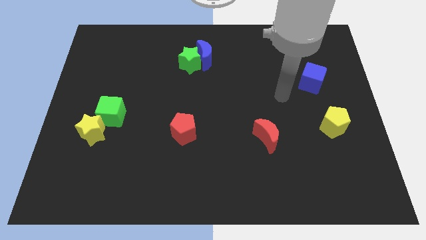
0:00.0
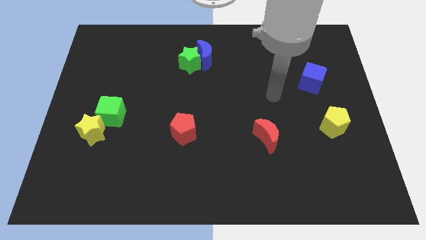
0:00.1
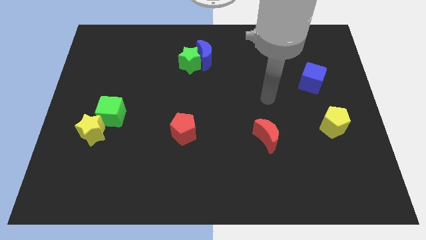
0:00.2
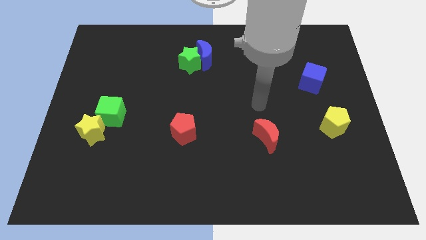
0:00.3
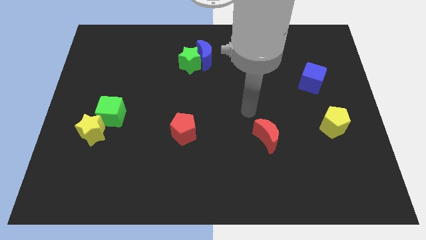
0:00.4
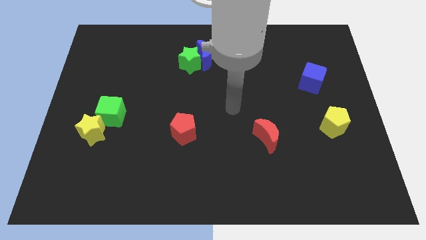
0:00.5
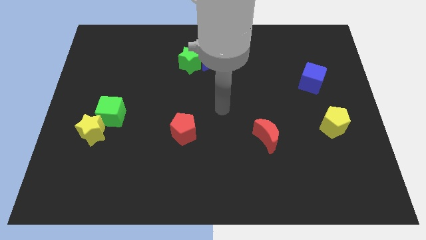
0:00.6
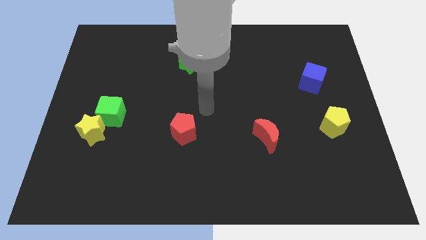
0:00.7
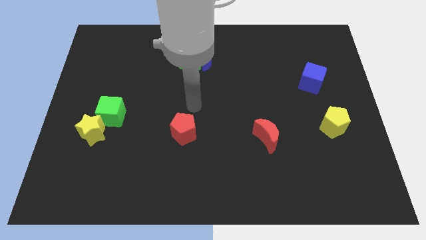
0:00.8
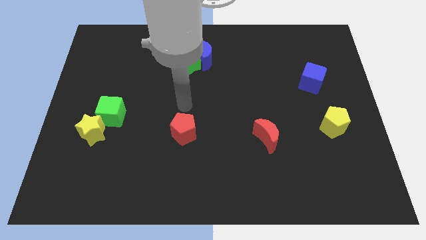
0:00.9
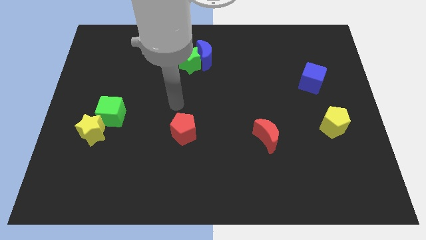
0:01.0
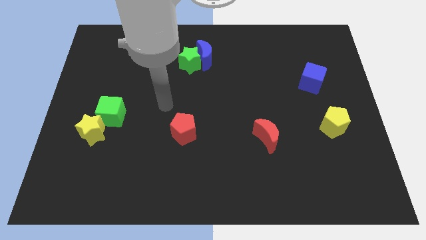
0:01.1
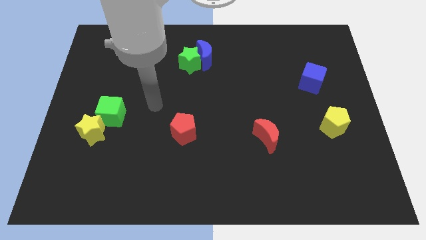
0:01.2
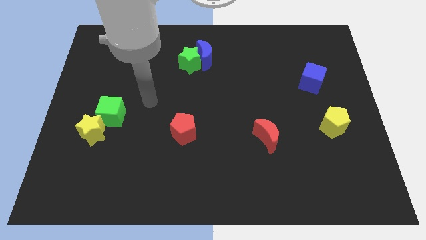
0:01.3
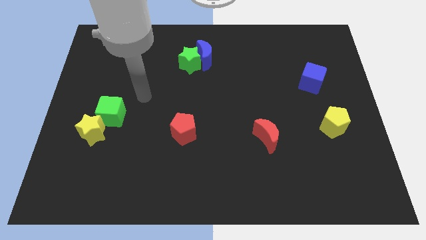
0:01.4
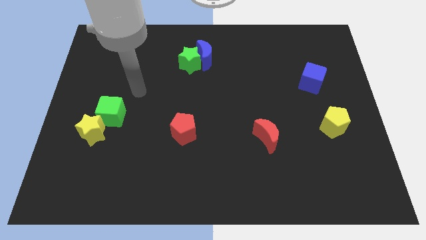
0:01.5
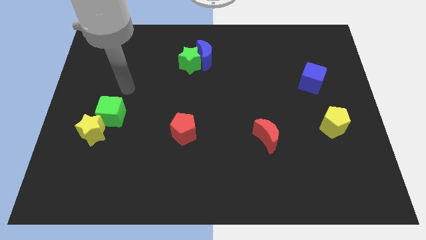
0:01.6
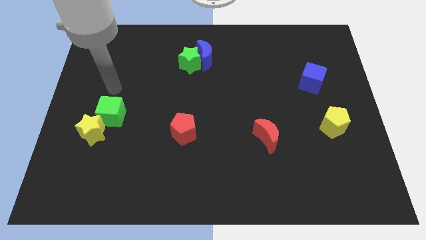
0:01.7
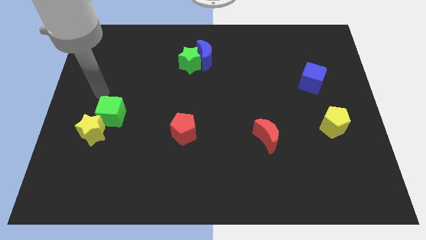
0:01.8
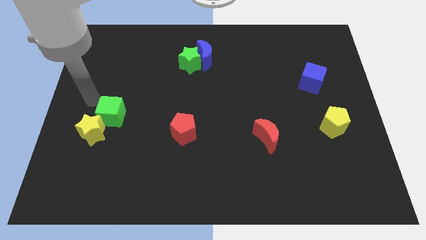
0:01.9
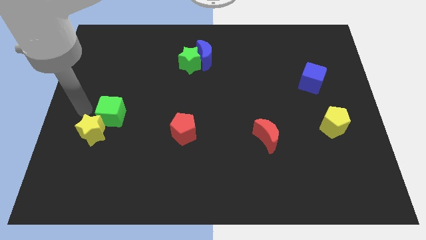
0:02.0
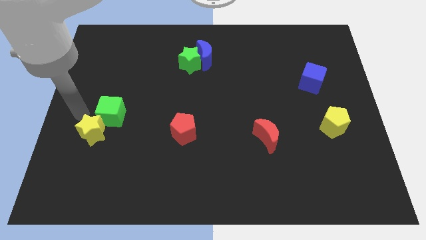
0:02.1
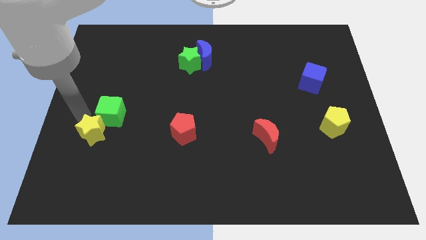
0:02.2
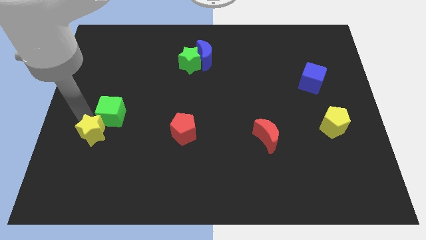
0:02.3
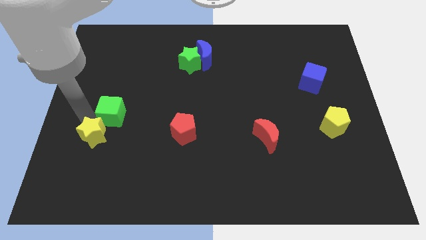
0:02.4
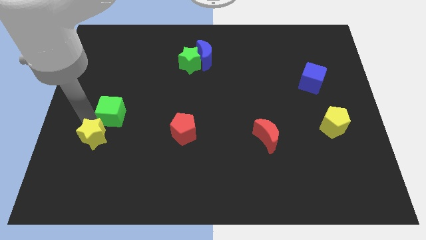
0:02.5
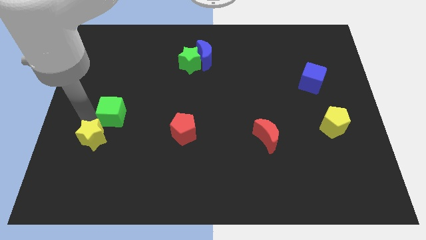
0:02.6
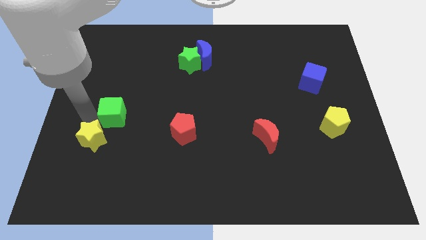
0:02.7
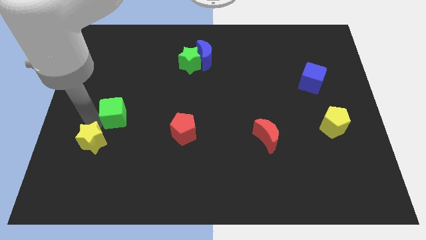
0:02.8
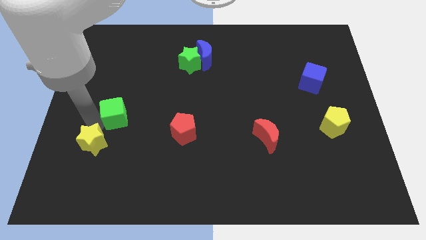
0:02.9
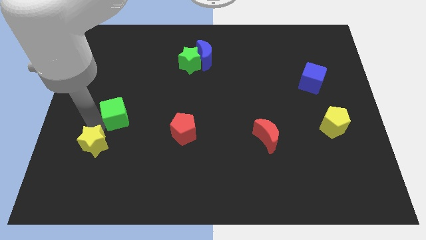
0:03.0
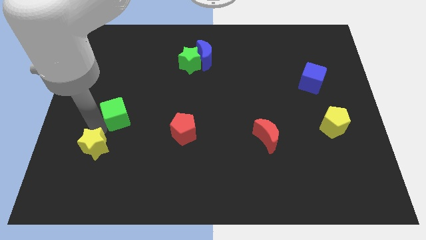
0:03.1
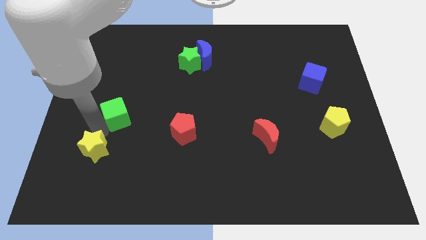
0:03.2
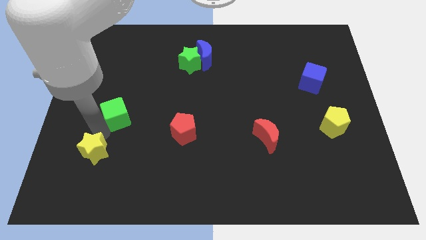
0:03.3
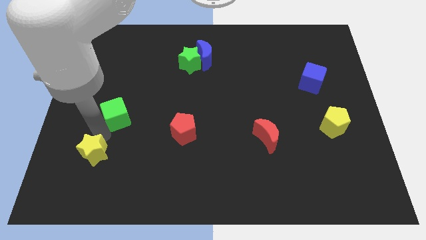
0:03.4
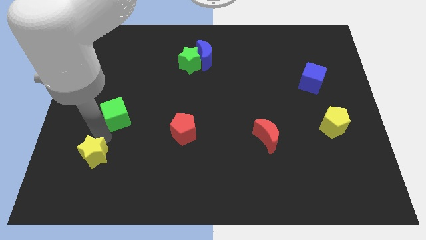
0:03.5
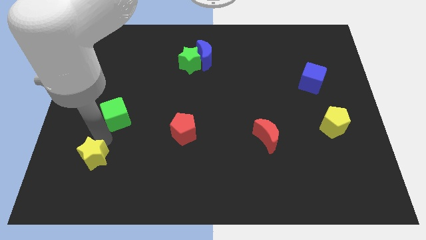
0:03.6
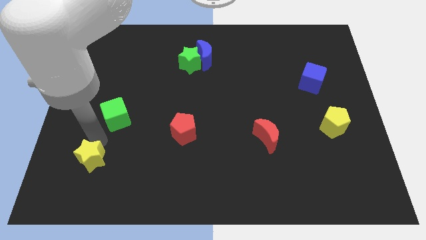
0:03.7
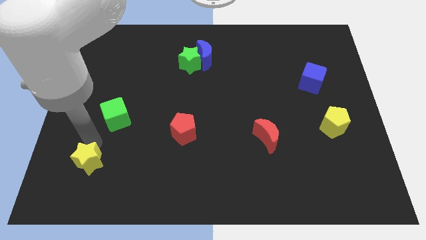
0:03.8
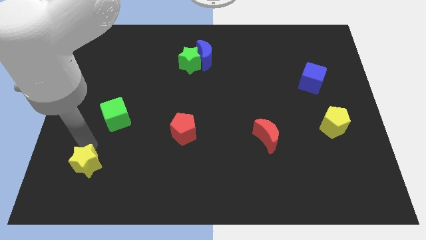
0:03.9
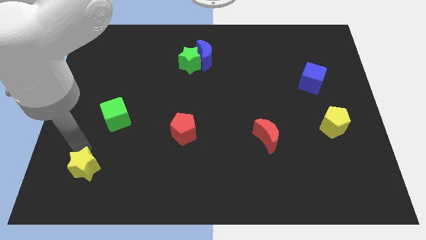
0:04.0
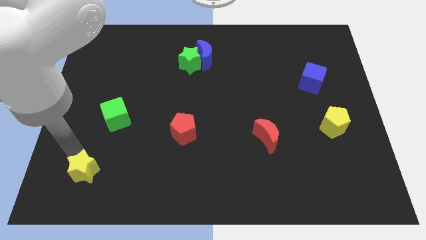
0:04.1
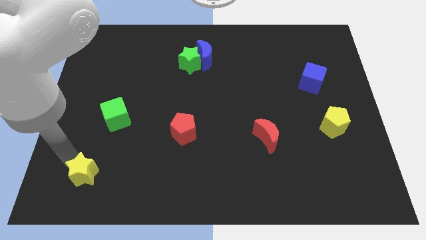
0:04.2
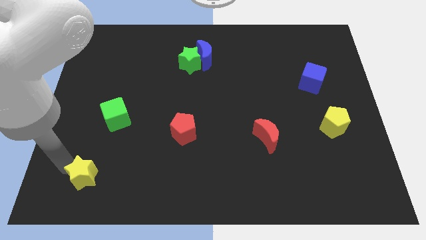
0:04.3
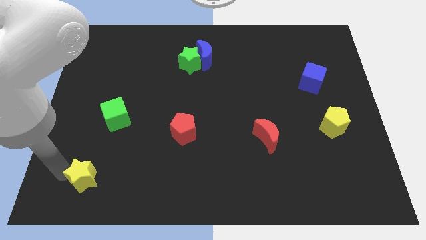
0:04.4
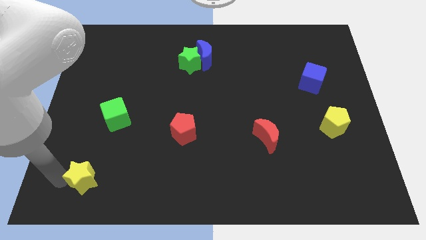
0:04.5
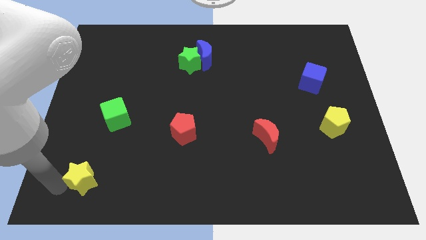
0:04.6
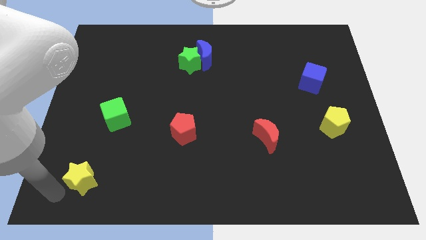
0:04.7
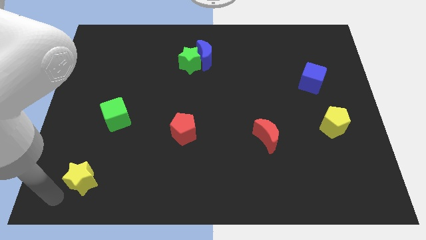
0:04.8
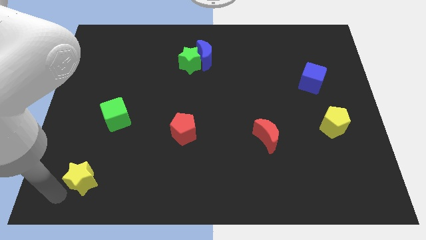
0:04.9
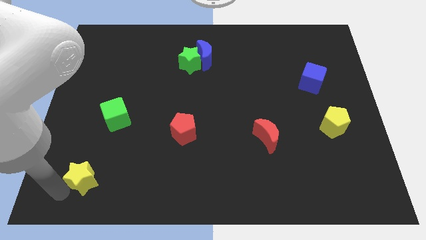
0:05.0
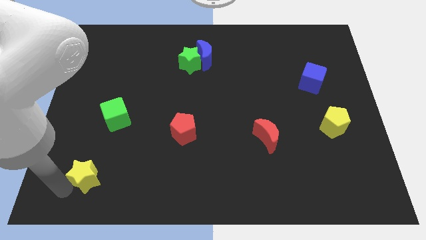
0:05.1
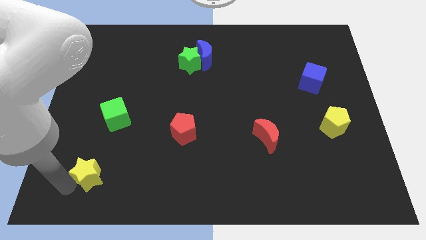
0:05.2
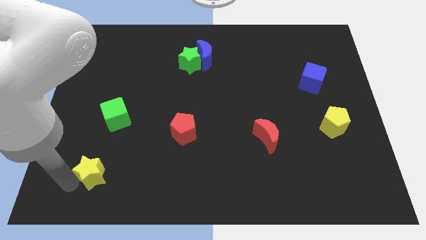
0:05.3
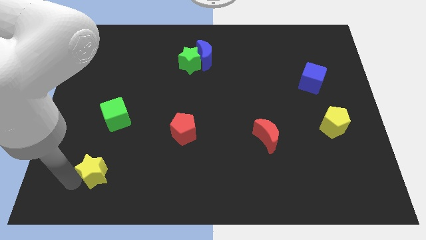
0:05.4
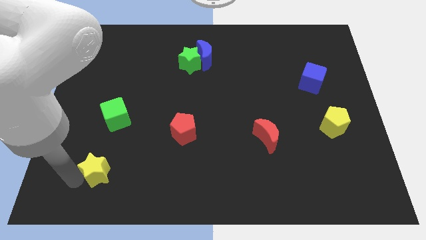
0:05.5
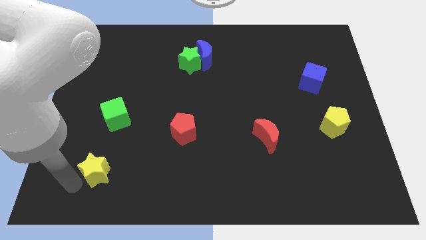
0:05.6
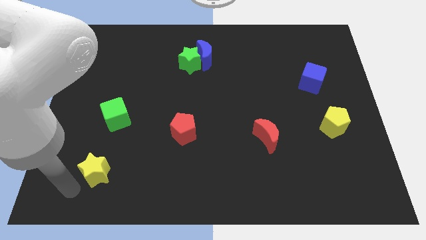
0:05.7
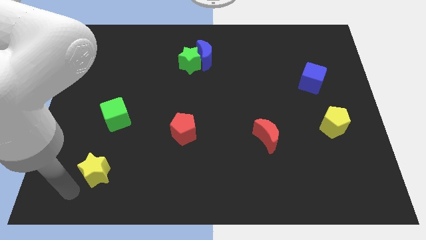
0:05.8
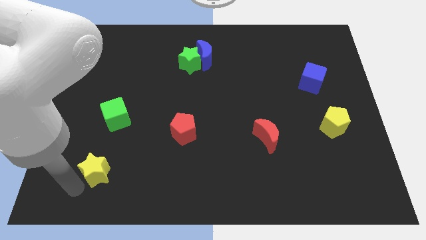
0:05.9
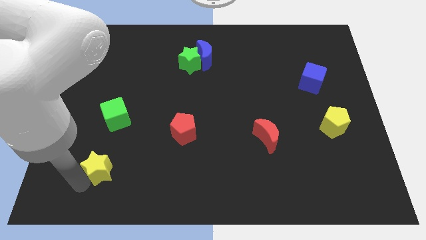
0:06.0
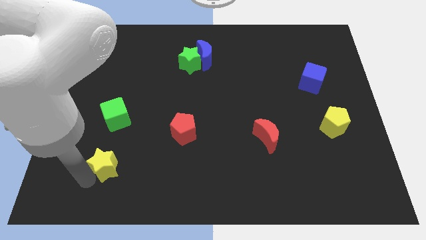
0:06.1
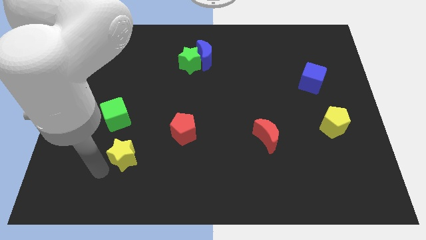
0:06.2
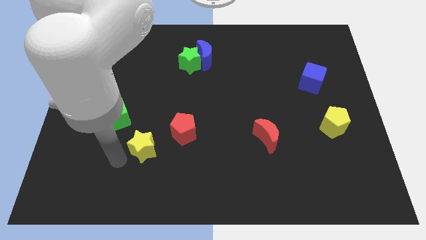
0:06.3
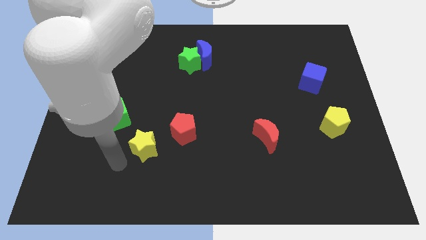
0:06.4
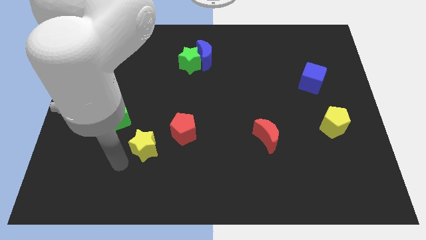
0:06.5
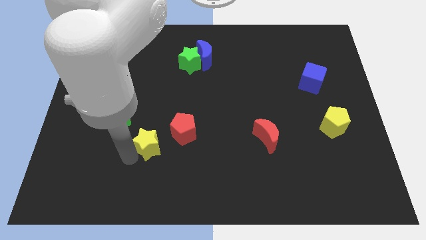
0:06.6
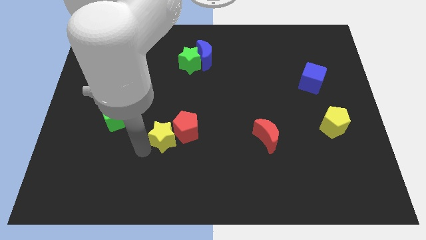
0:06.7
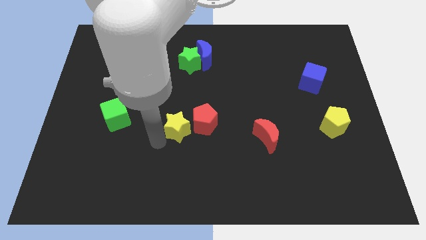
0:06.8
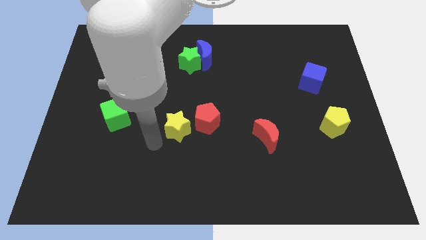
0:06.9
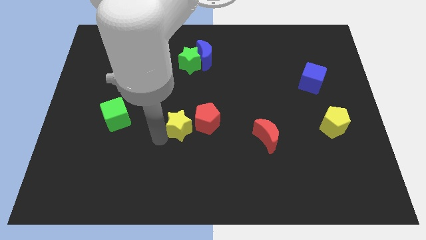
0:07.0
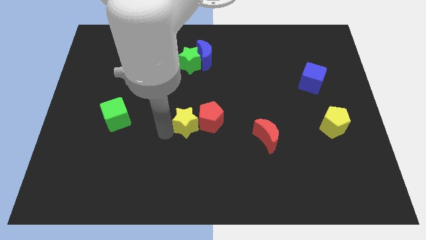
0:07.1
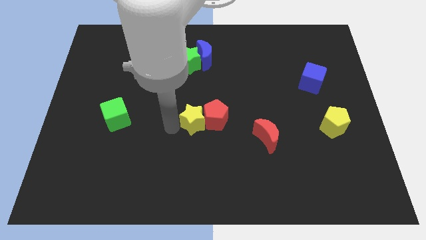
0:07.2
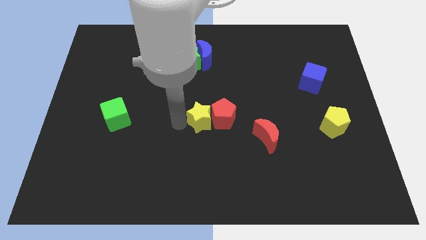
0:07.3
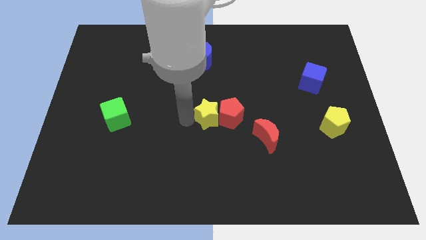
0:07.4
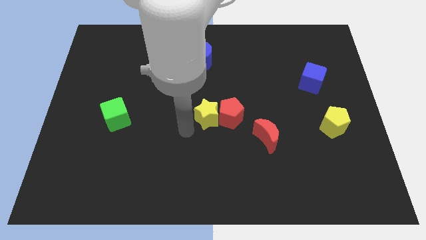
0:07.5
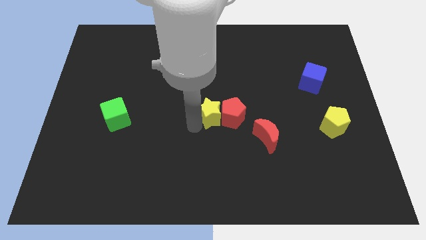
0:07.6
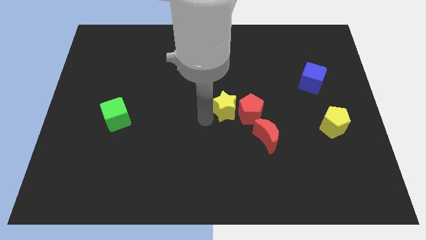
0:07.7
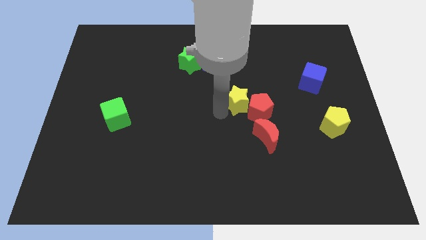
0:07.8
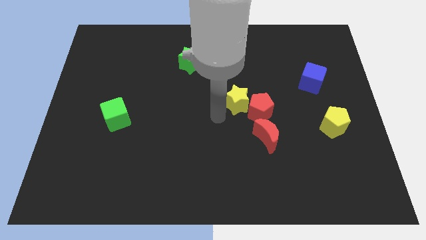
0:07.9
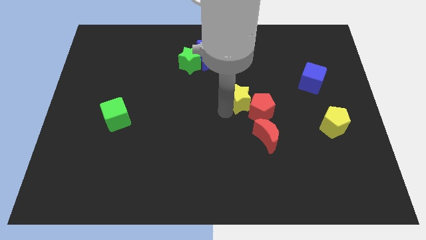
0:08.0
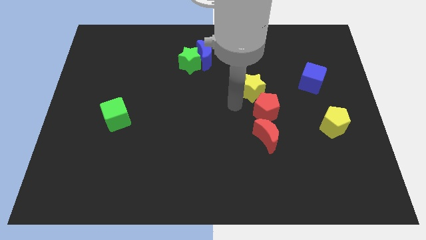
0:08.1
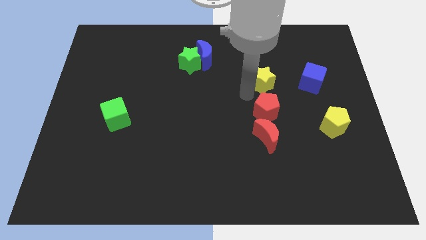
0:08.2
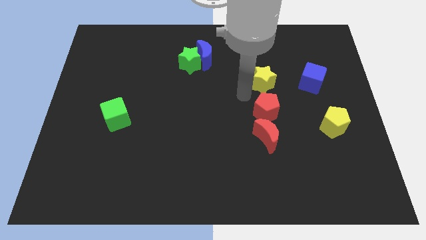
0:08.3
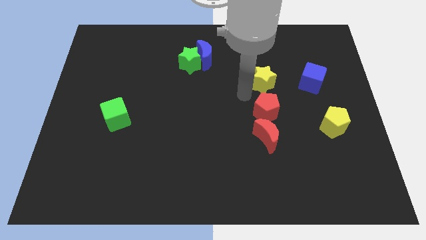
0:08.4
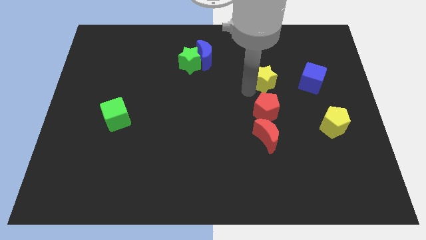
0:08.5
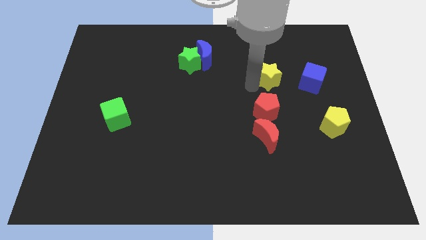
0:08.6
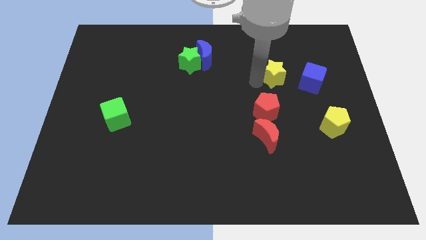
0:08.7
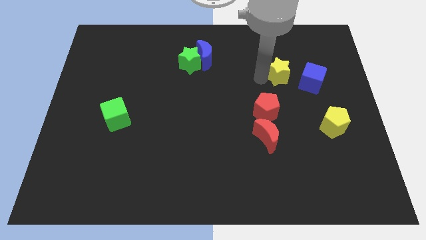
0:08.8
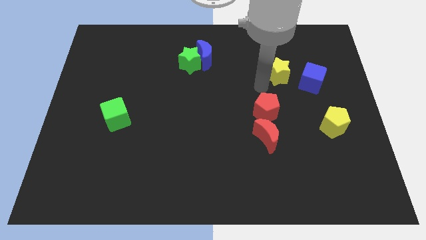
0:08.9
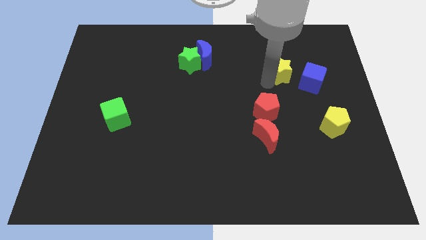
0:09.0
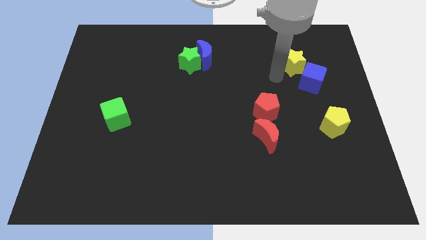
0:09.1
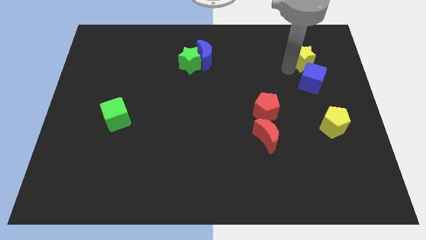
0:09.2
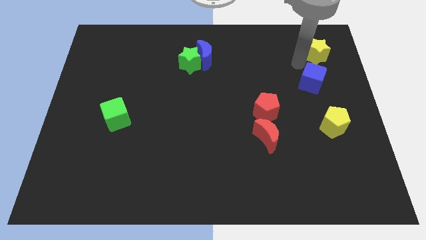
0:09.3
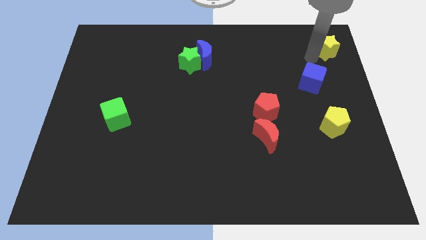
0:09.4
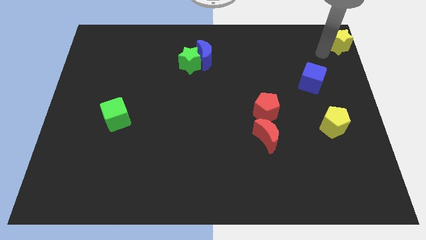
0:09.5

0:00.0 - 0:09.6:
push the yellow star to the top right
